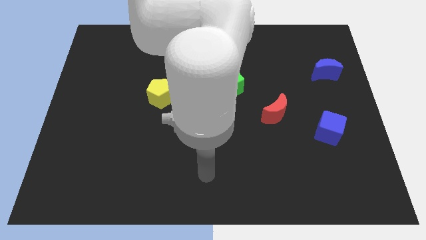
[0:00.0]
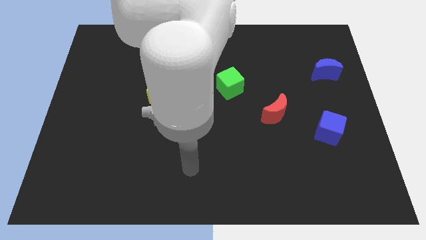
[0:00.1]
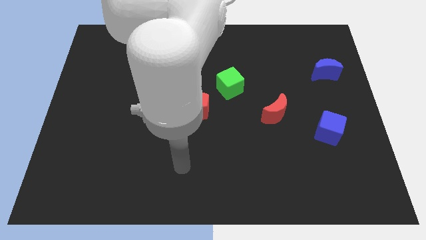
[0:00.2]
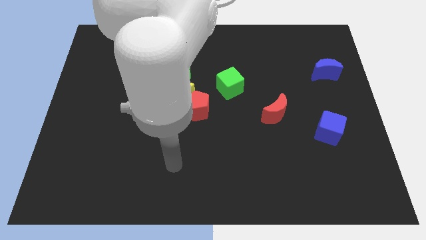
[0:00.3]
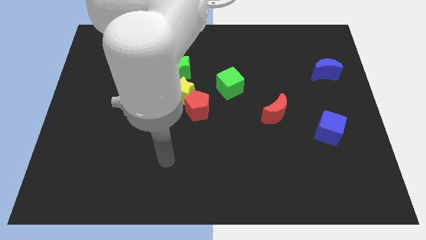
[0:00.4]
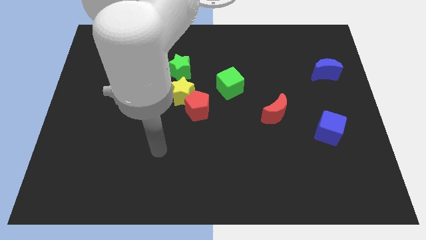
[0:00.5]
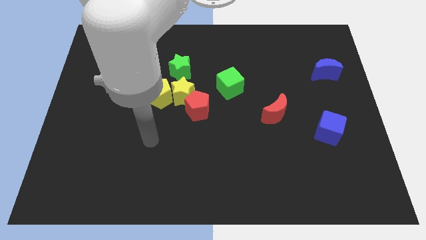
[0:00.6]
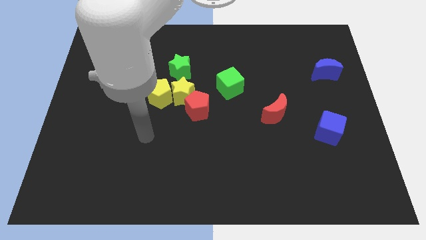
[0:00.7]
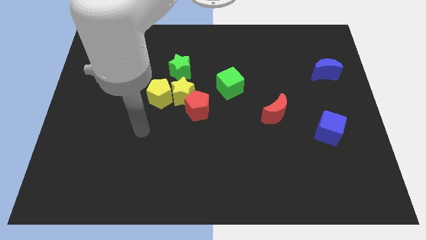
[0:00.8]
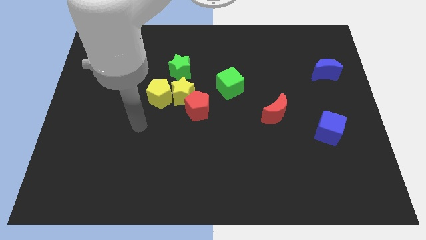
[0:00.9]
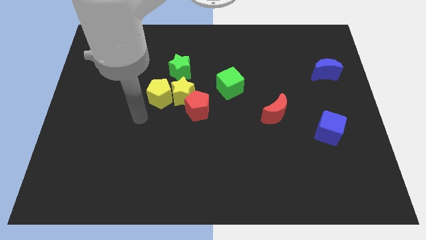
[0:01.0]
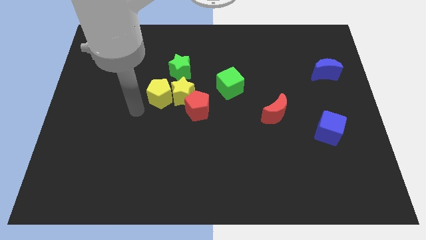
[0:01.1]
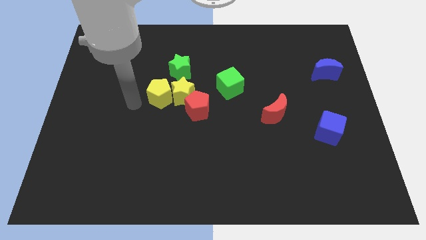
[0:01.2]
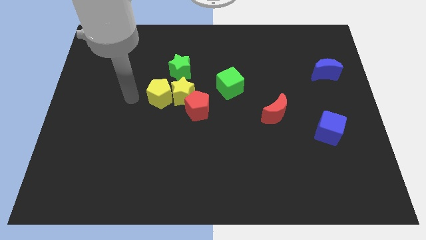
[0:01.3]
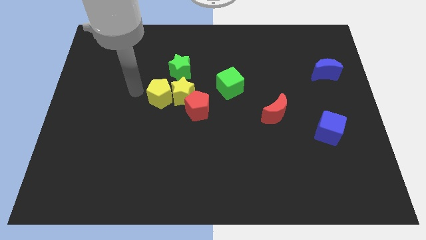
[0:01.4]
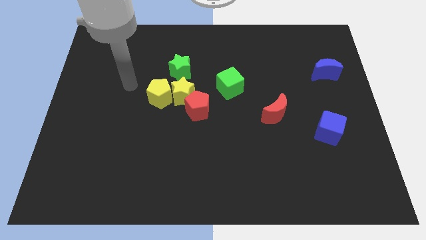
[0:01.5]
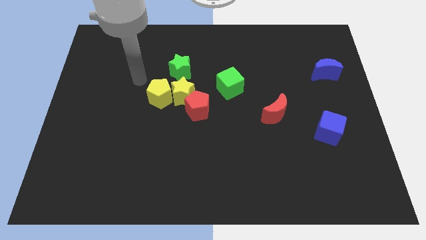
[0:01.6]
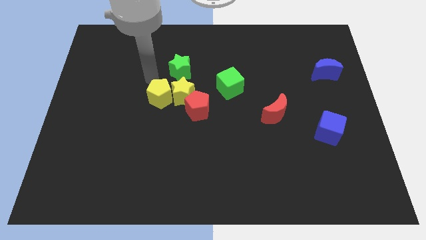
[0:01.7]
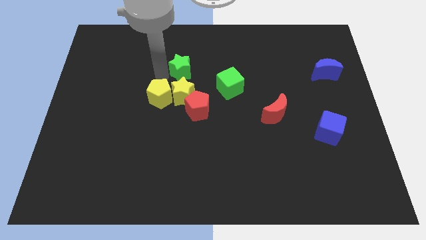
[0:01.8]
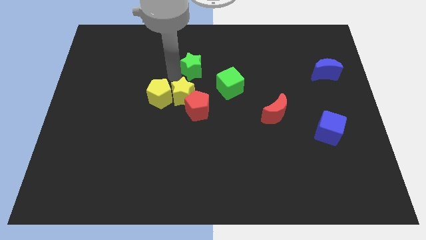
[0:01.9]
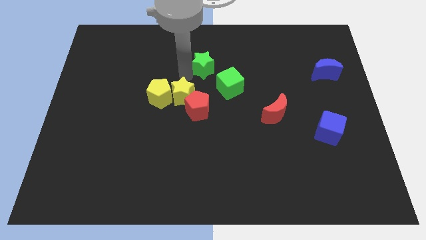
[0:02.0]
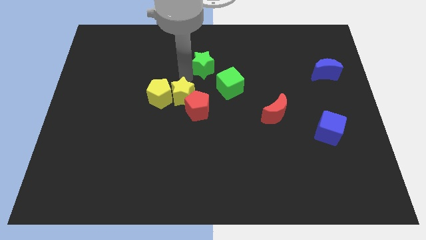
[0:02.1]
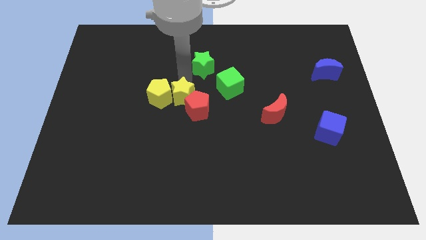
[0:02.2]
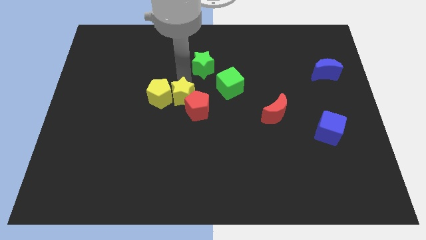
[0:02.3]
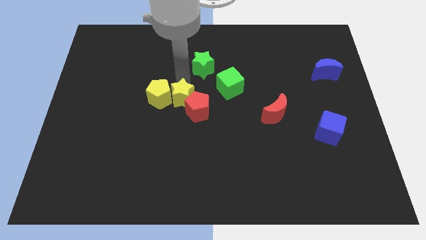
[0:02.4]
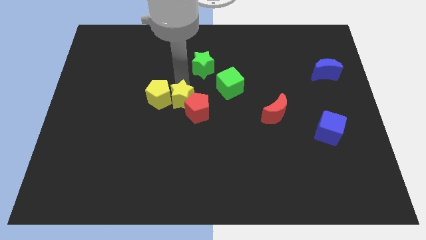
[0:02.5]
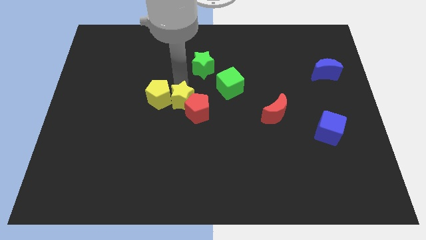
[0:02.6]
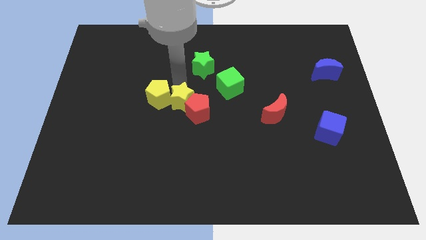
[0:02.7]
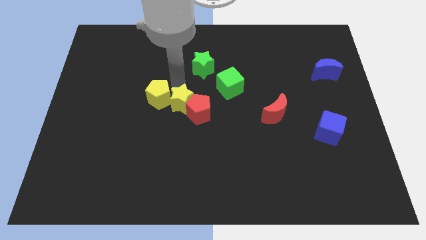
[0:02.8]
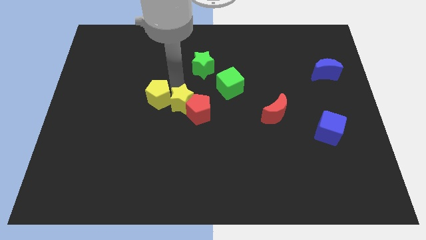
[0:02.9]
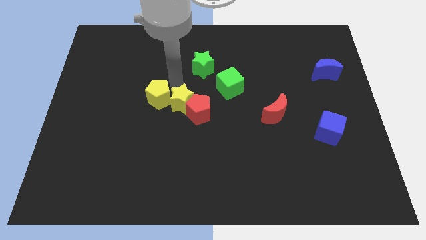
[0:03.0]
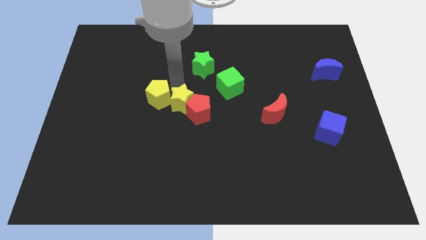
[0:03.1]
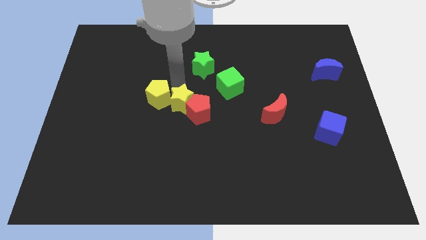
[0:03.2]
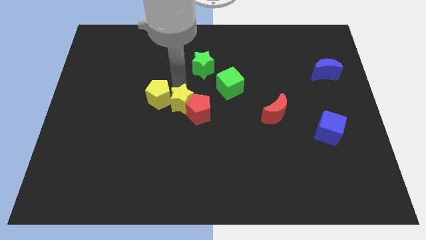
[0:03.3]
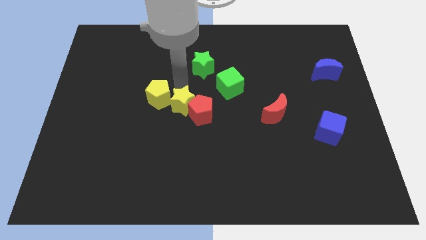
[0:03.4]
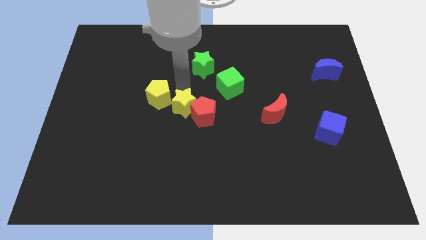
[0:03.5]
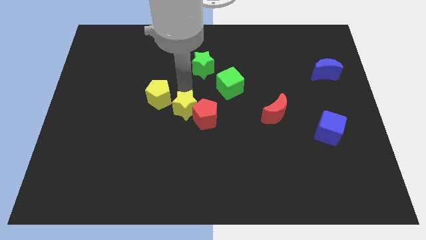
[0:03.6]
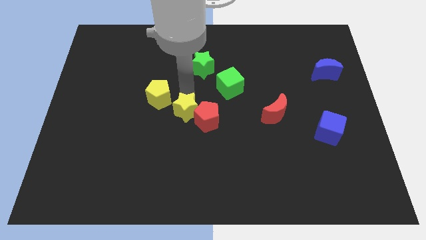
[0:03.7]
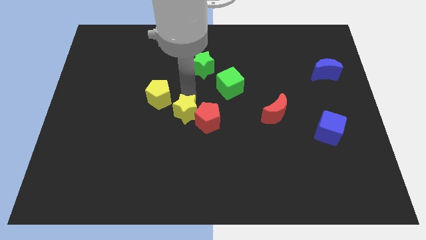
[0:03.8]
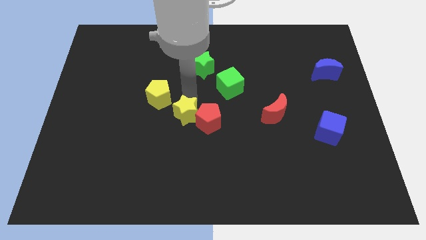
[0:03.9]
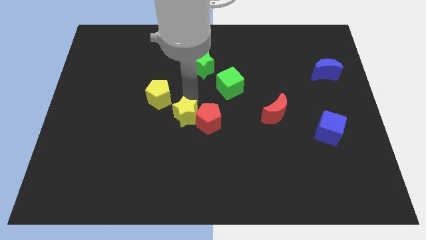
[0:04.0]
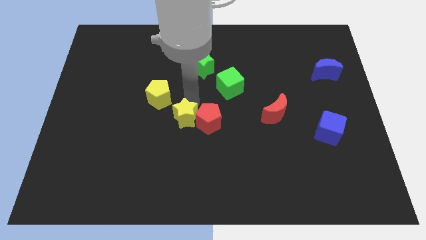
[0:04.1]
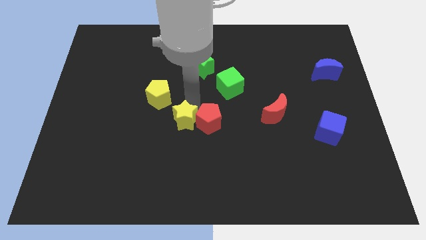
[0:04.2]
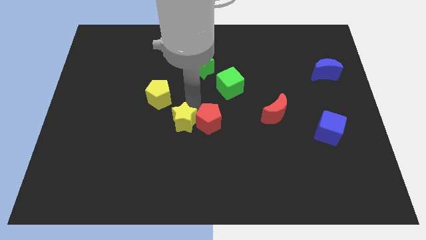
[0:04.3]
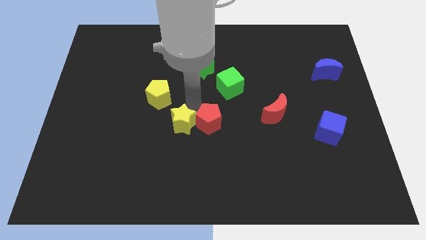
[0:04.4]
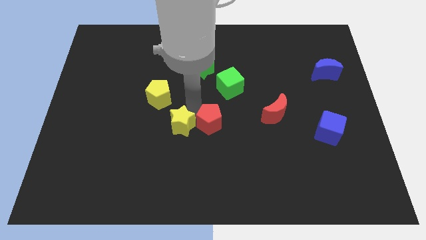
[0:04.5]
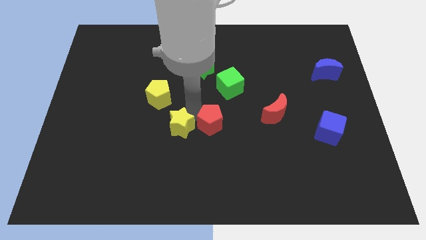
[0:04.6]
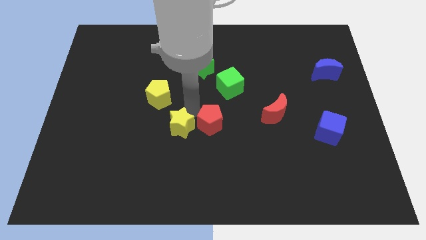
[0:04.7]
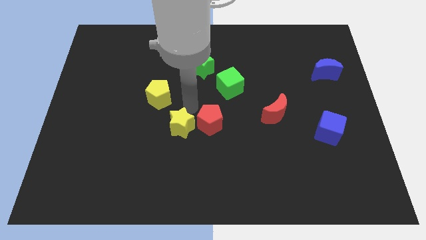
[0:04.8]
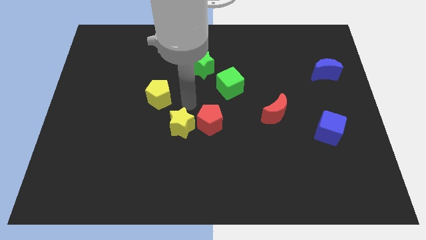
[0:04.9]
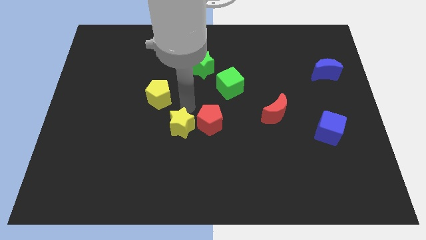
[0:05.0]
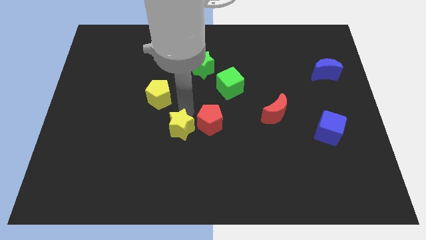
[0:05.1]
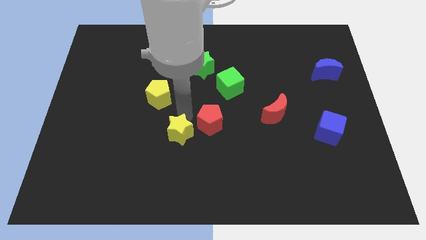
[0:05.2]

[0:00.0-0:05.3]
separate the yellow star from the group of blocks

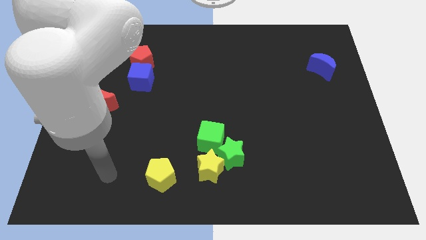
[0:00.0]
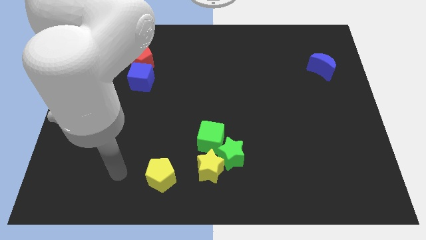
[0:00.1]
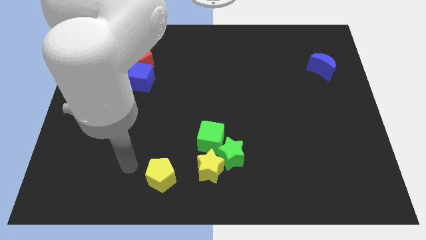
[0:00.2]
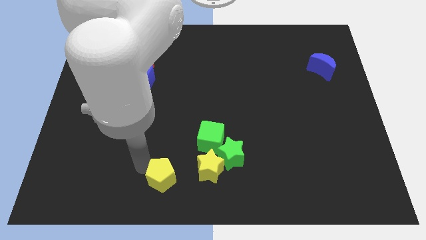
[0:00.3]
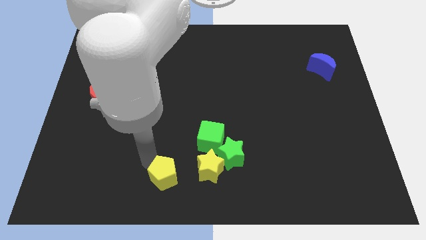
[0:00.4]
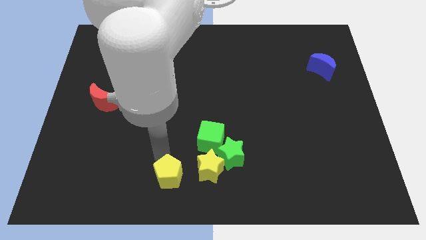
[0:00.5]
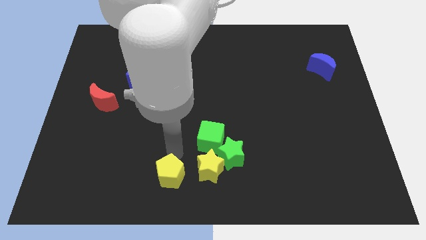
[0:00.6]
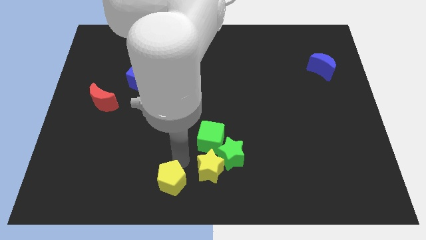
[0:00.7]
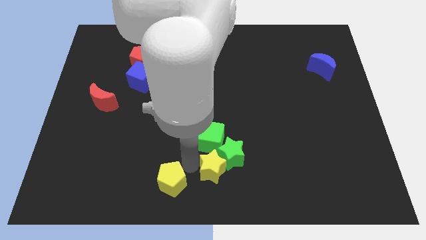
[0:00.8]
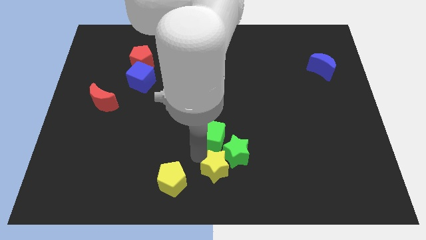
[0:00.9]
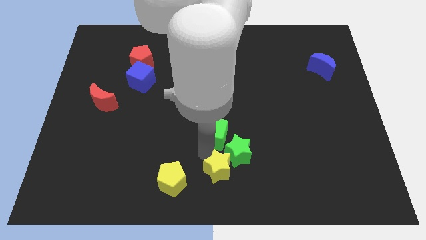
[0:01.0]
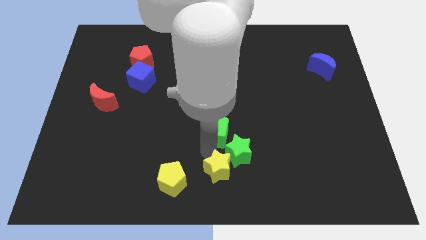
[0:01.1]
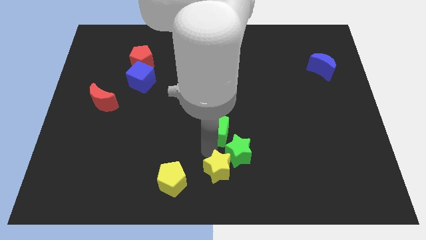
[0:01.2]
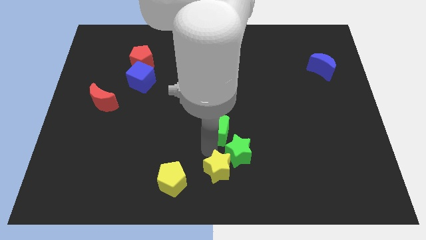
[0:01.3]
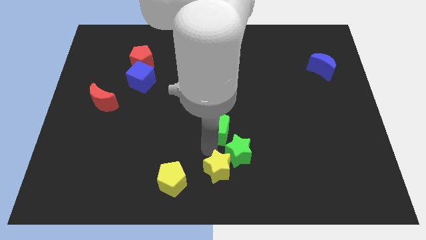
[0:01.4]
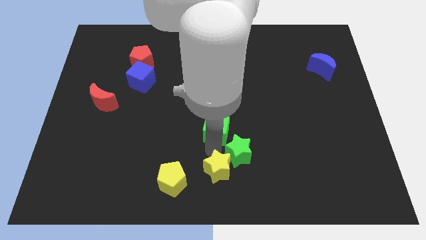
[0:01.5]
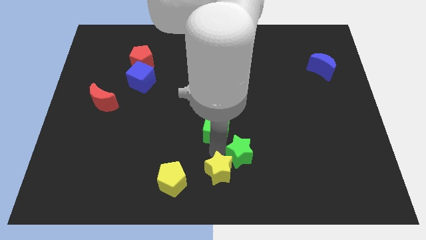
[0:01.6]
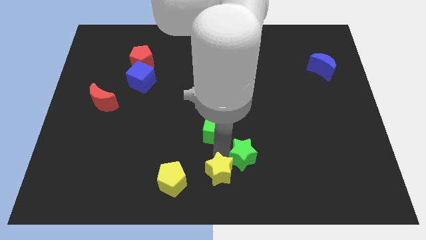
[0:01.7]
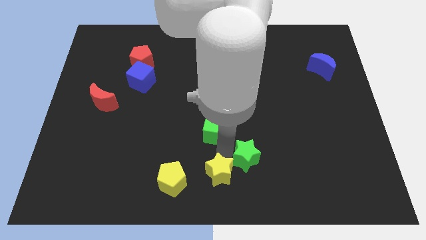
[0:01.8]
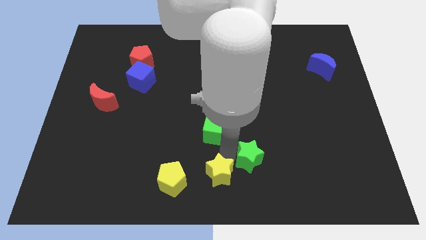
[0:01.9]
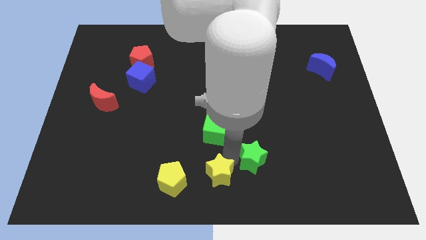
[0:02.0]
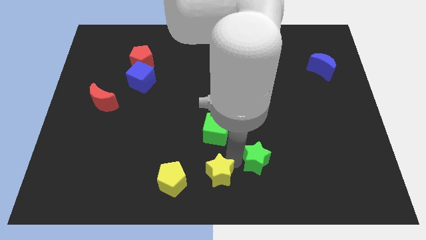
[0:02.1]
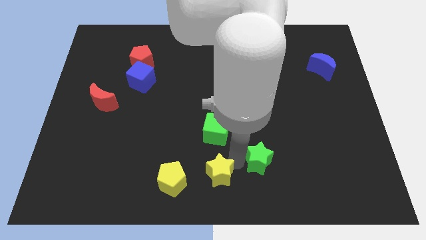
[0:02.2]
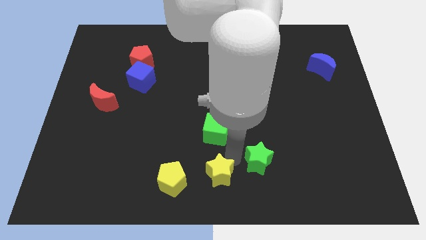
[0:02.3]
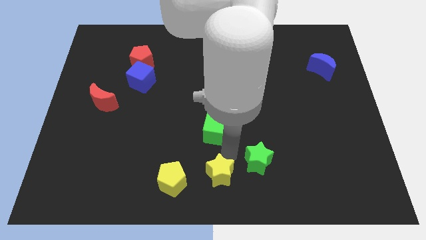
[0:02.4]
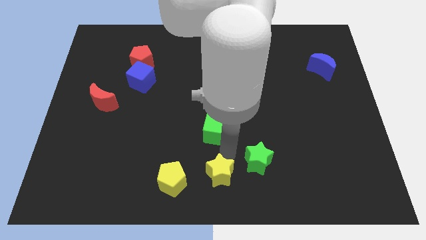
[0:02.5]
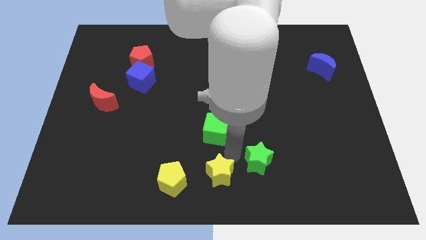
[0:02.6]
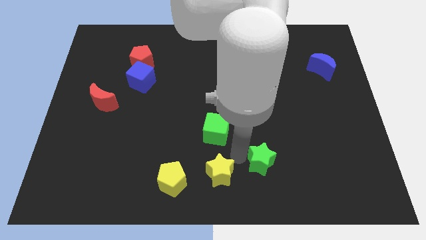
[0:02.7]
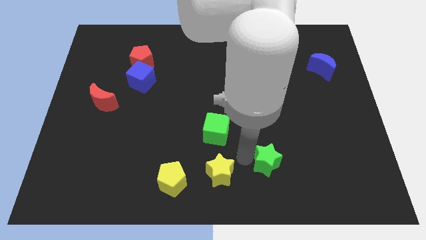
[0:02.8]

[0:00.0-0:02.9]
pull the green star apart from the yellow star and green cube

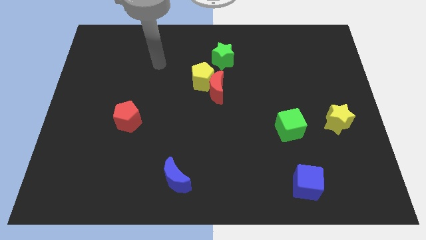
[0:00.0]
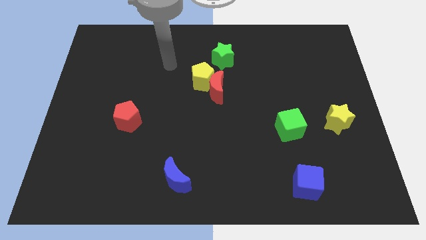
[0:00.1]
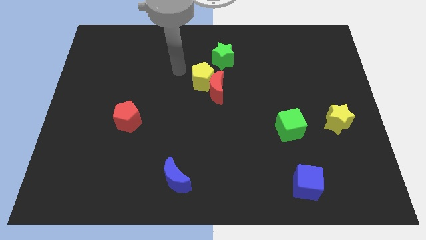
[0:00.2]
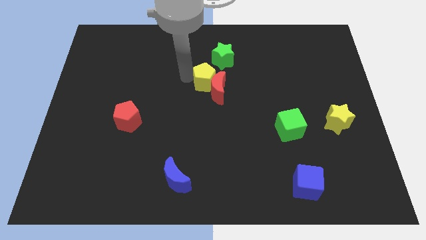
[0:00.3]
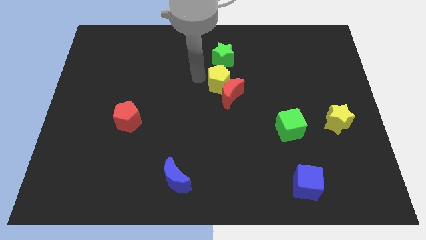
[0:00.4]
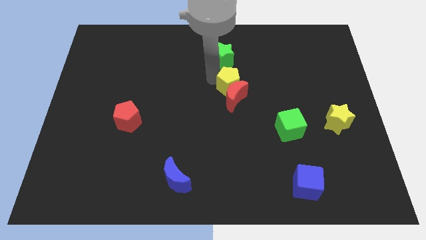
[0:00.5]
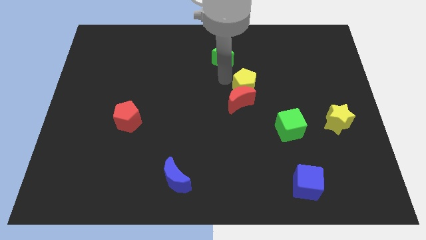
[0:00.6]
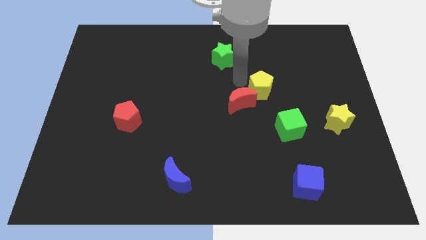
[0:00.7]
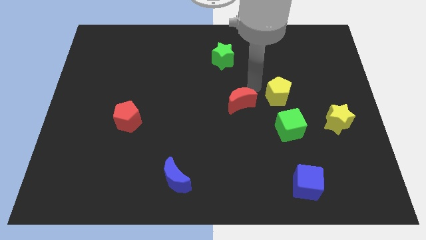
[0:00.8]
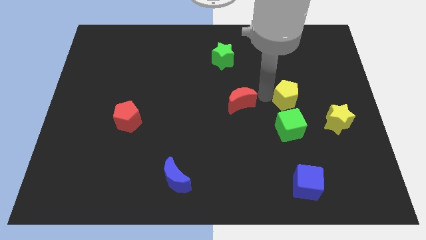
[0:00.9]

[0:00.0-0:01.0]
separate the red moon from the yellow pentagon
